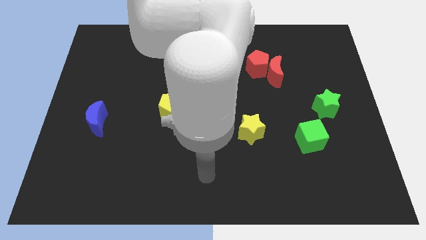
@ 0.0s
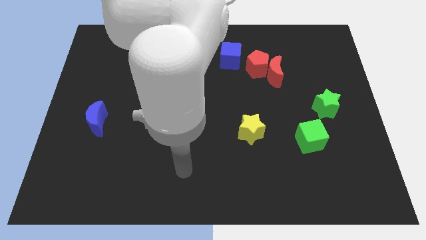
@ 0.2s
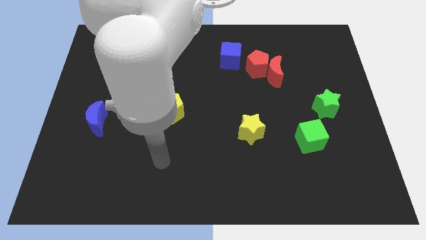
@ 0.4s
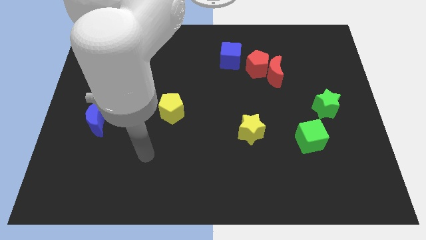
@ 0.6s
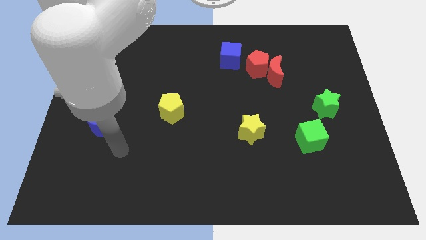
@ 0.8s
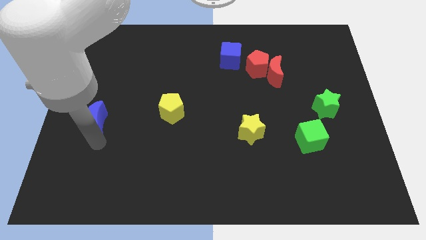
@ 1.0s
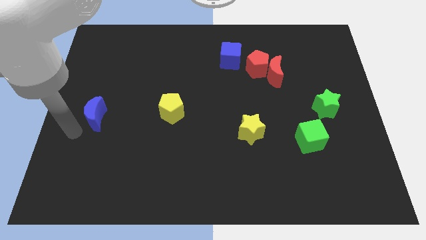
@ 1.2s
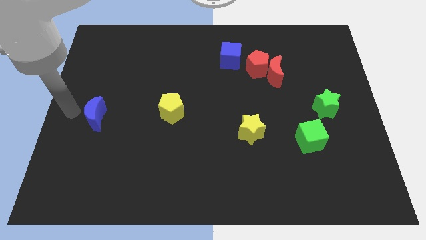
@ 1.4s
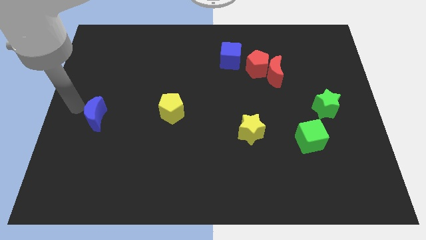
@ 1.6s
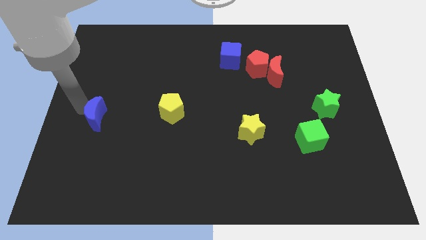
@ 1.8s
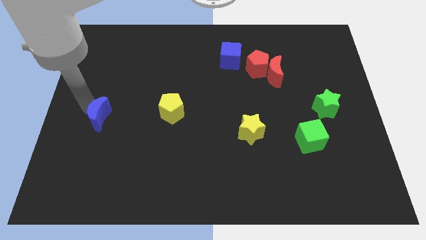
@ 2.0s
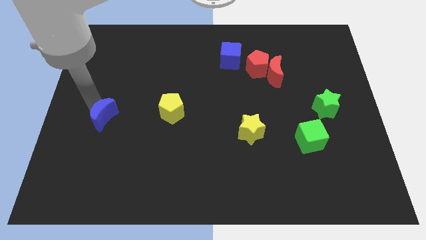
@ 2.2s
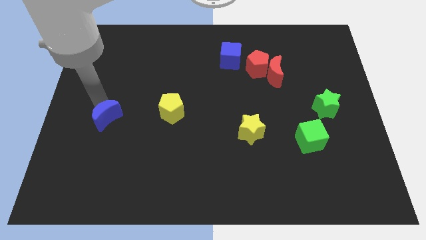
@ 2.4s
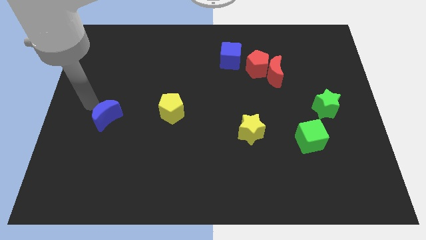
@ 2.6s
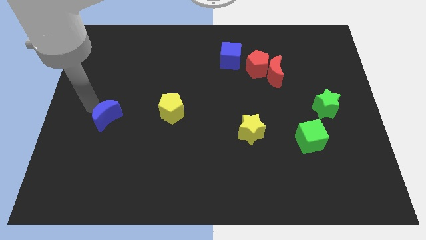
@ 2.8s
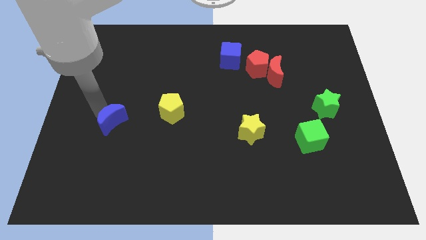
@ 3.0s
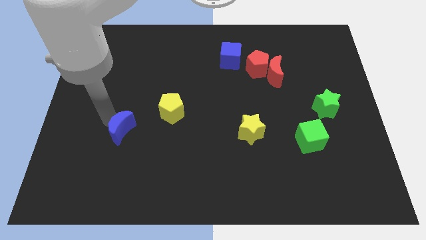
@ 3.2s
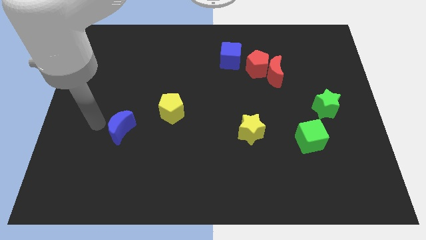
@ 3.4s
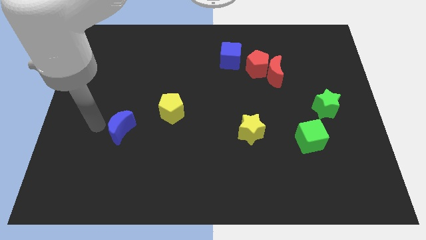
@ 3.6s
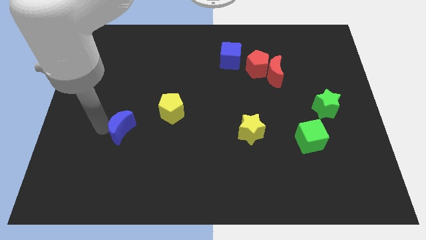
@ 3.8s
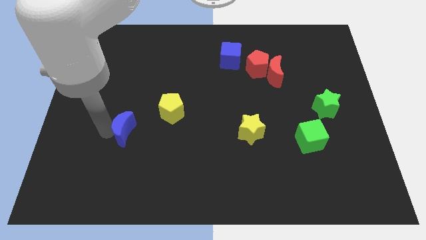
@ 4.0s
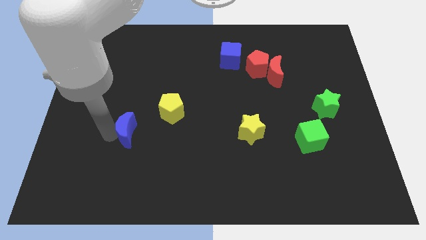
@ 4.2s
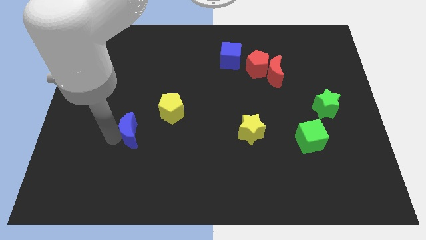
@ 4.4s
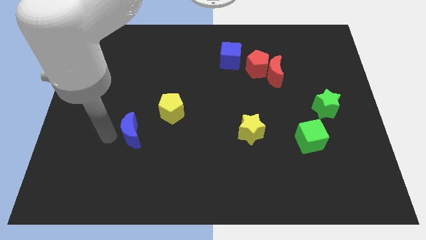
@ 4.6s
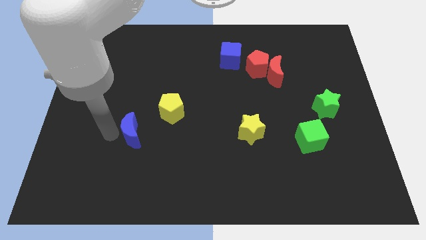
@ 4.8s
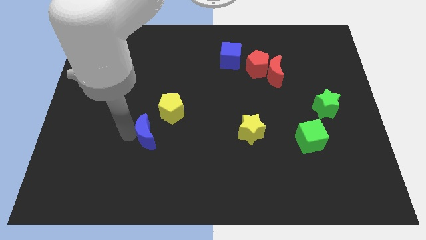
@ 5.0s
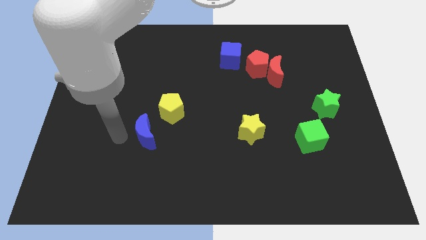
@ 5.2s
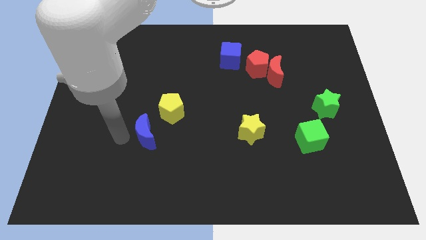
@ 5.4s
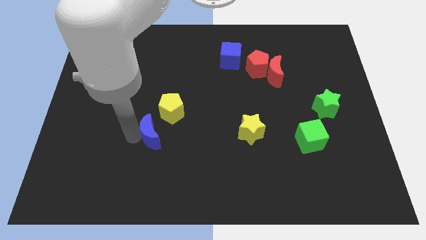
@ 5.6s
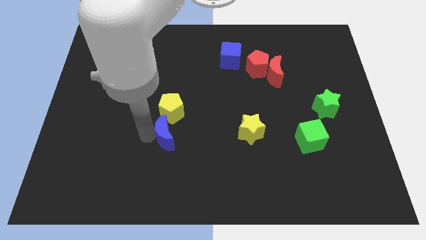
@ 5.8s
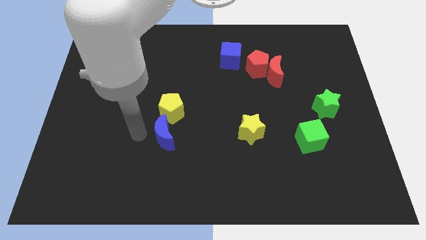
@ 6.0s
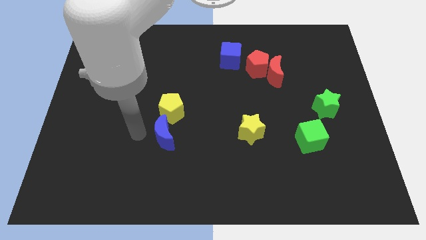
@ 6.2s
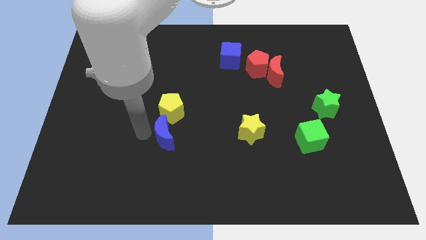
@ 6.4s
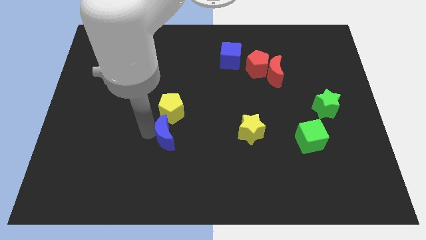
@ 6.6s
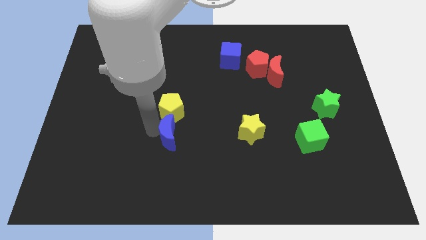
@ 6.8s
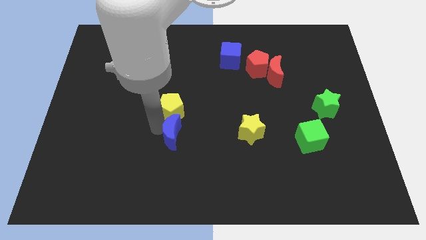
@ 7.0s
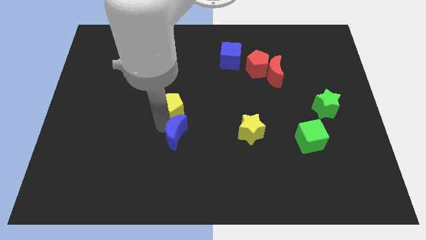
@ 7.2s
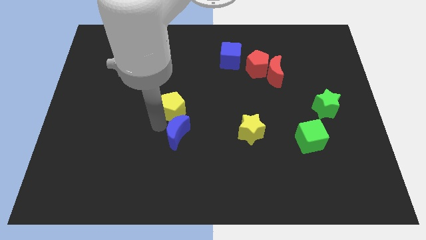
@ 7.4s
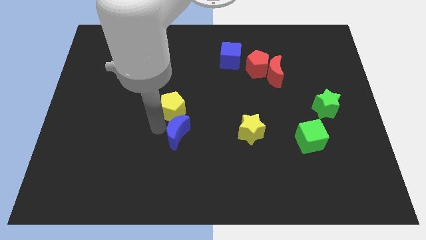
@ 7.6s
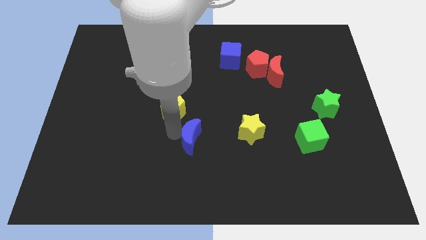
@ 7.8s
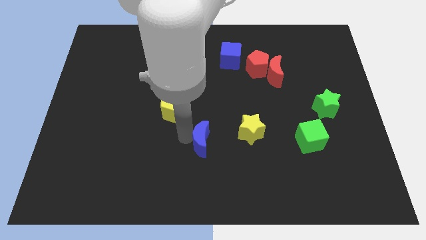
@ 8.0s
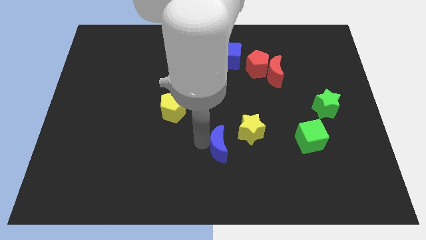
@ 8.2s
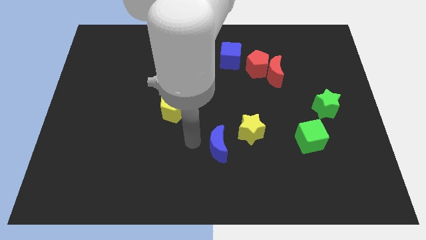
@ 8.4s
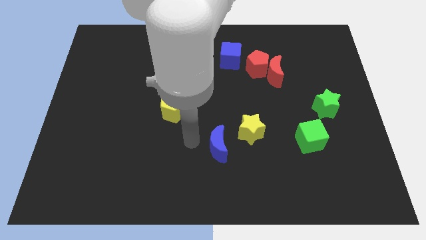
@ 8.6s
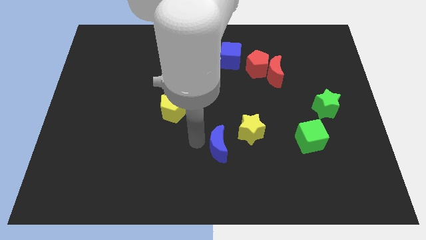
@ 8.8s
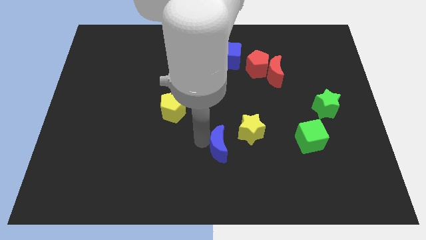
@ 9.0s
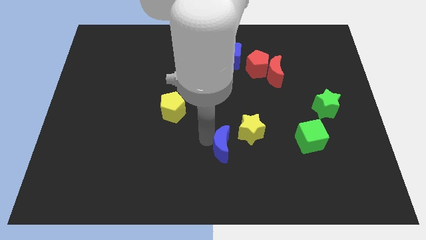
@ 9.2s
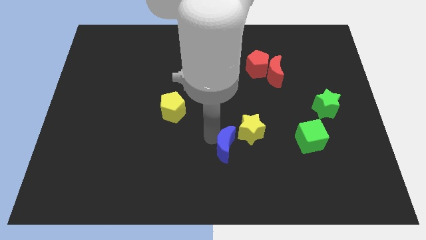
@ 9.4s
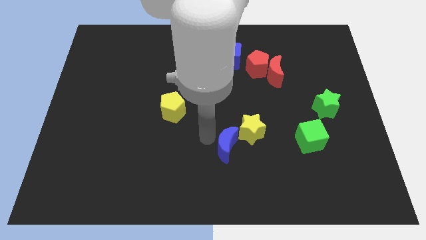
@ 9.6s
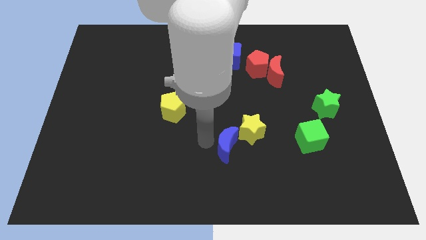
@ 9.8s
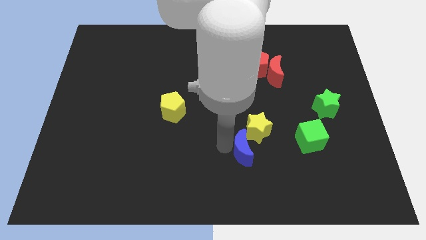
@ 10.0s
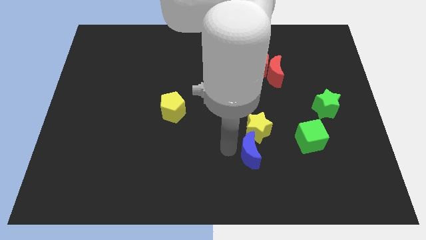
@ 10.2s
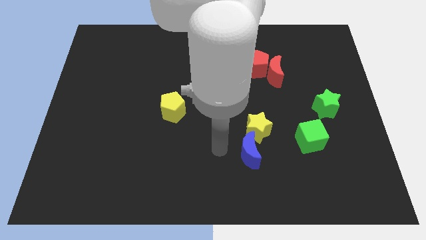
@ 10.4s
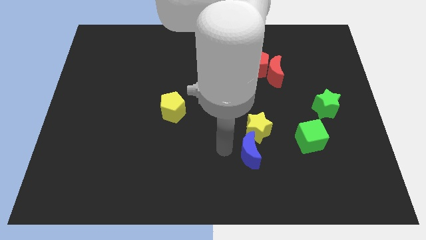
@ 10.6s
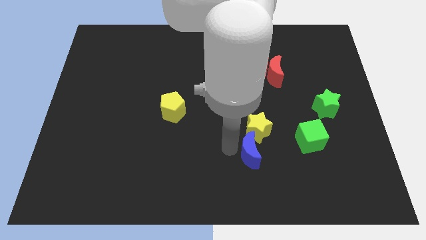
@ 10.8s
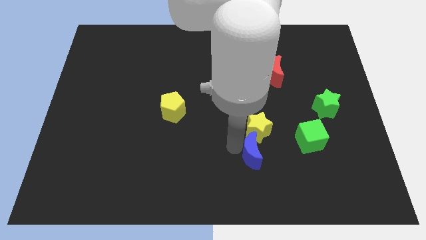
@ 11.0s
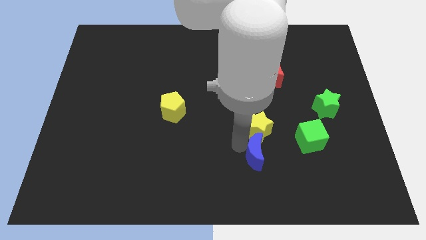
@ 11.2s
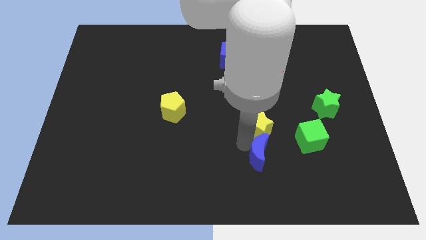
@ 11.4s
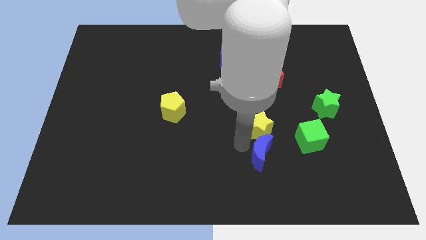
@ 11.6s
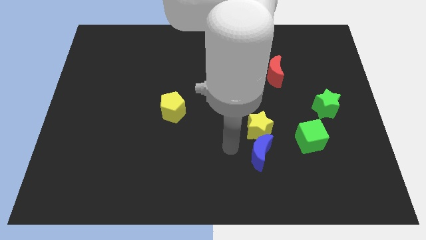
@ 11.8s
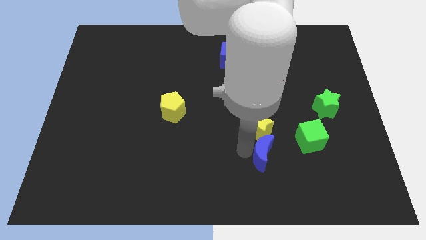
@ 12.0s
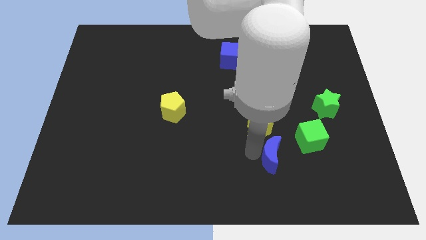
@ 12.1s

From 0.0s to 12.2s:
slide the blue moon to the bottom left side of the green cube
